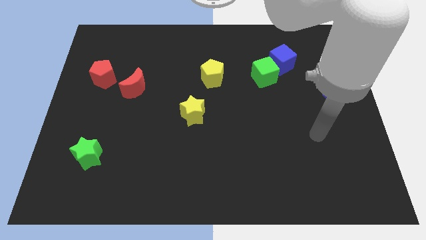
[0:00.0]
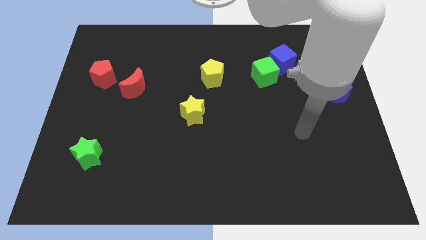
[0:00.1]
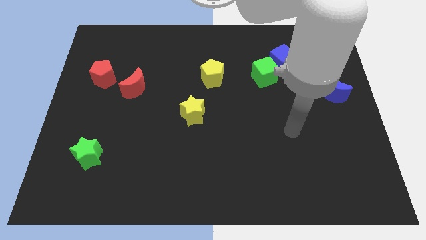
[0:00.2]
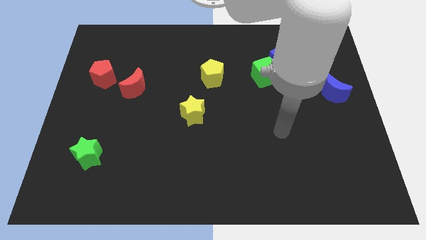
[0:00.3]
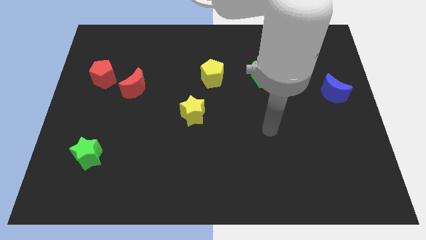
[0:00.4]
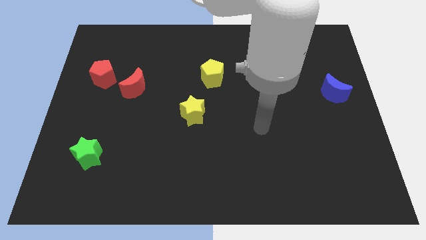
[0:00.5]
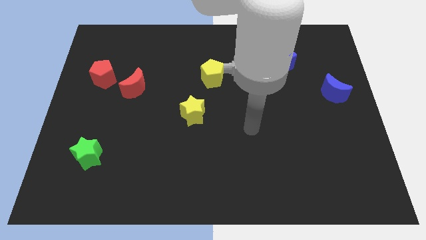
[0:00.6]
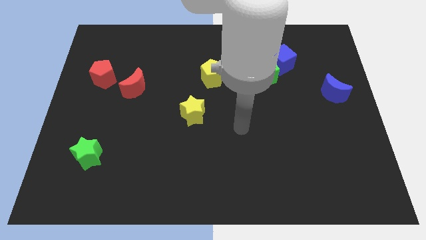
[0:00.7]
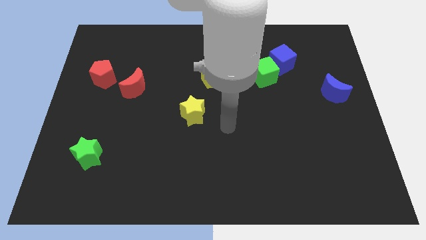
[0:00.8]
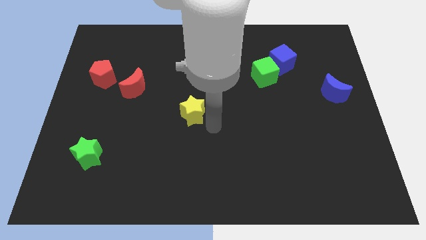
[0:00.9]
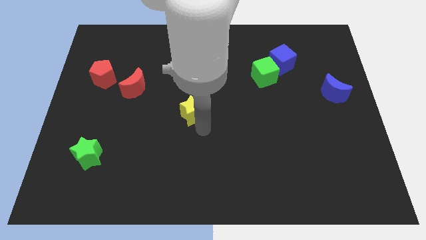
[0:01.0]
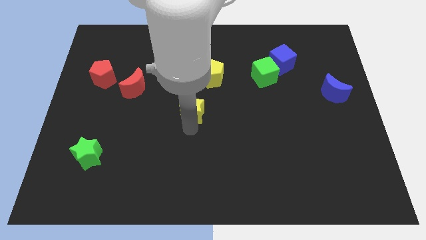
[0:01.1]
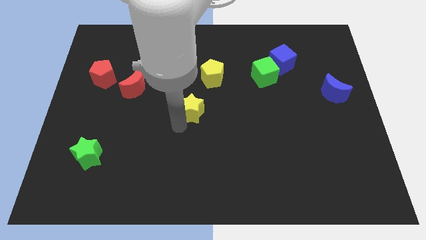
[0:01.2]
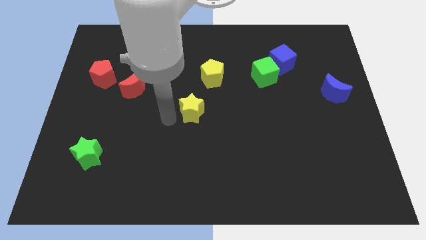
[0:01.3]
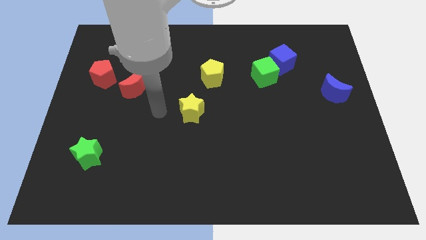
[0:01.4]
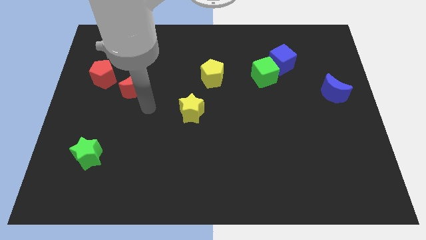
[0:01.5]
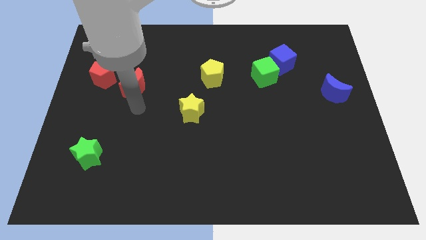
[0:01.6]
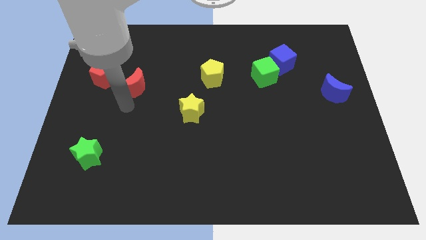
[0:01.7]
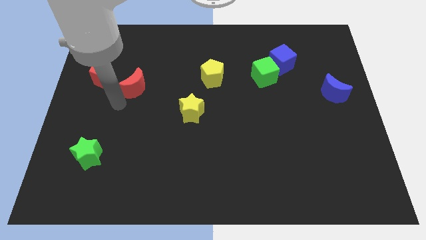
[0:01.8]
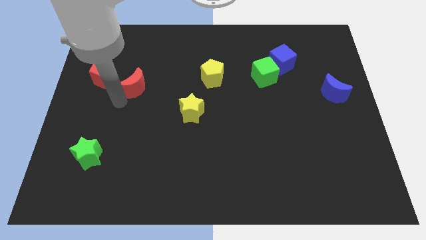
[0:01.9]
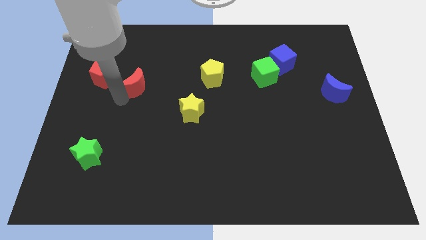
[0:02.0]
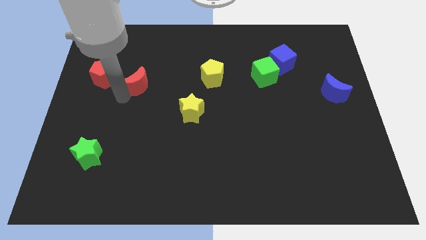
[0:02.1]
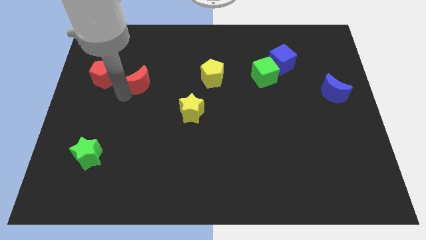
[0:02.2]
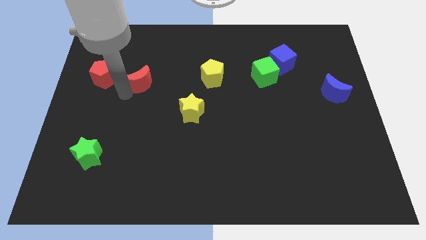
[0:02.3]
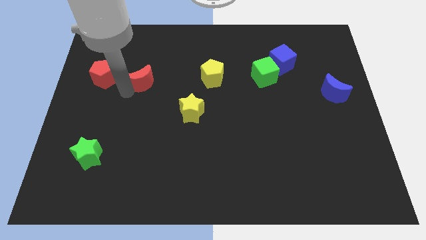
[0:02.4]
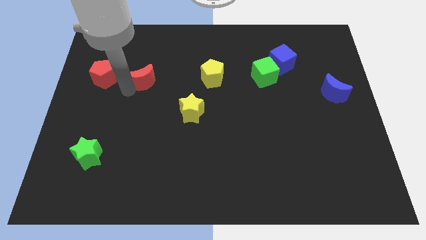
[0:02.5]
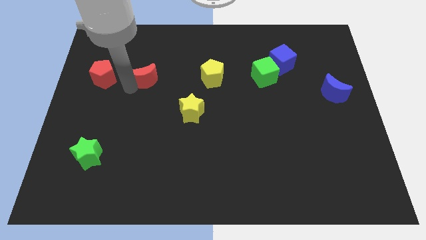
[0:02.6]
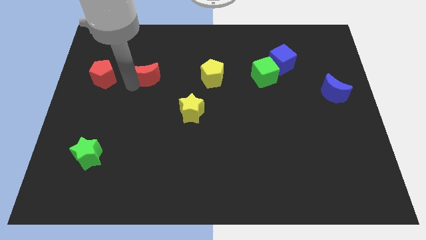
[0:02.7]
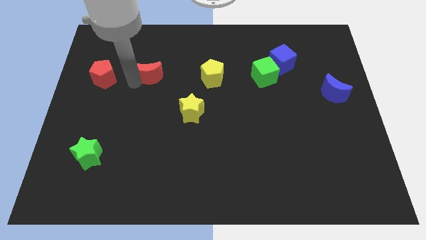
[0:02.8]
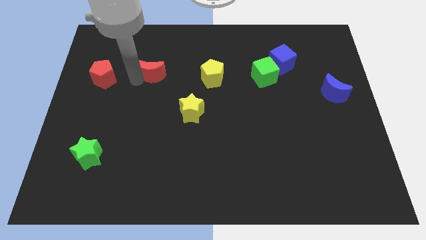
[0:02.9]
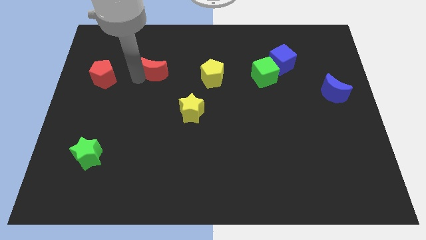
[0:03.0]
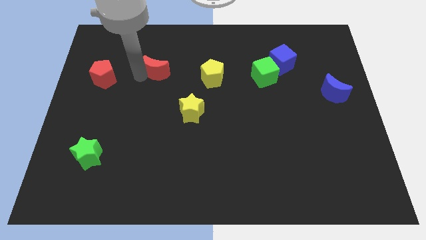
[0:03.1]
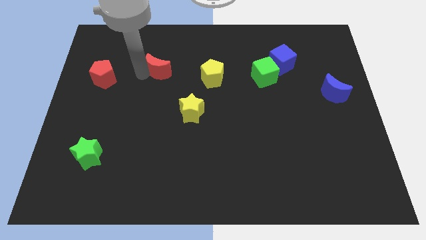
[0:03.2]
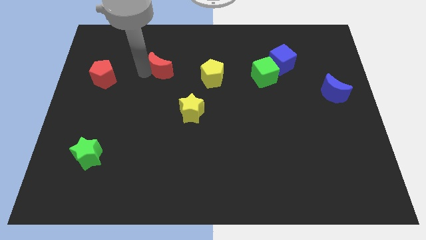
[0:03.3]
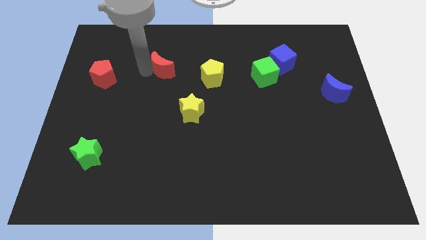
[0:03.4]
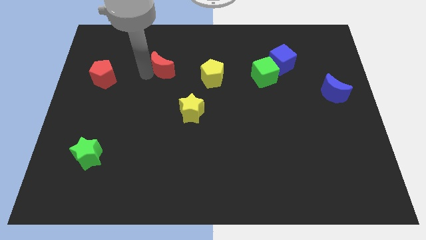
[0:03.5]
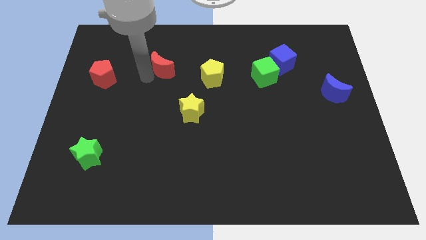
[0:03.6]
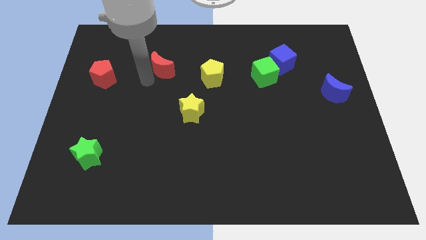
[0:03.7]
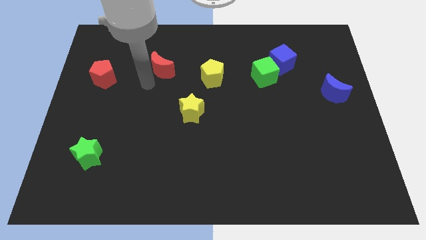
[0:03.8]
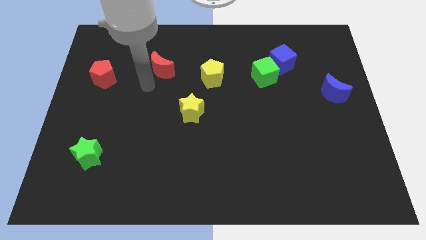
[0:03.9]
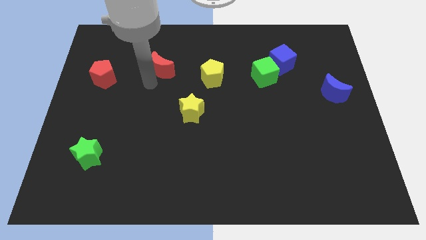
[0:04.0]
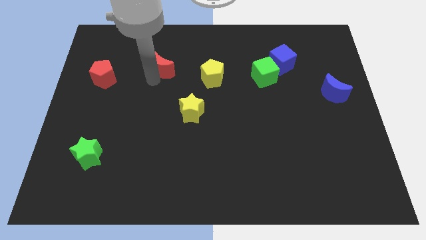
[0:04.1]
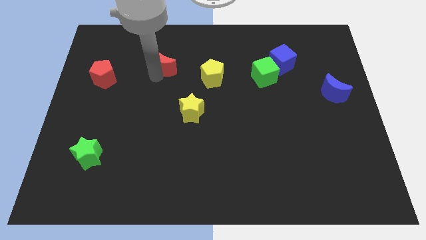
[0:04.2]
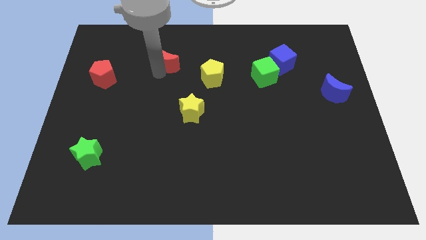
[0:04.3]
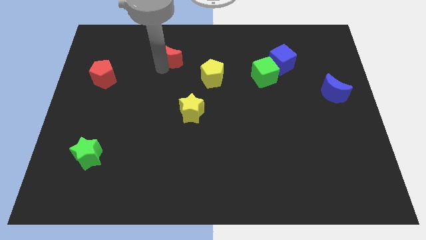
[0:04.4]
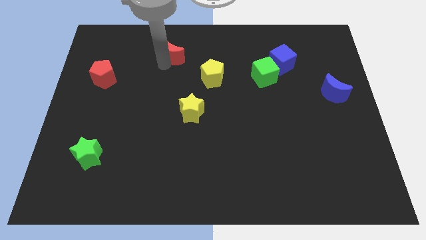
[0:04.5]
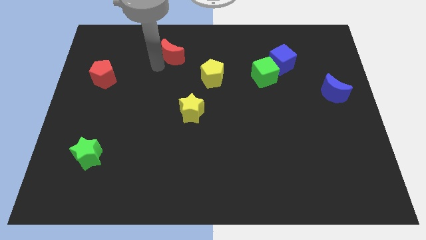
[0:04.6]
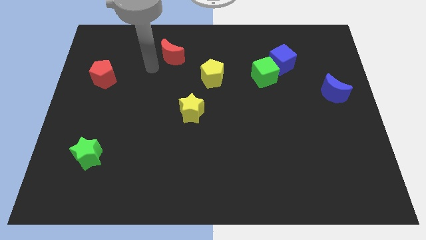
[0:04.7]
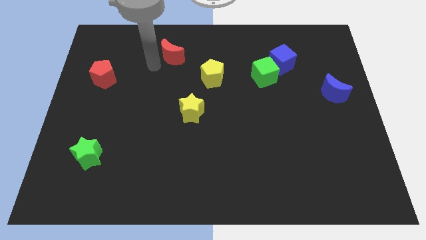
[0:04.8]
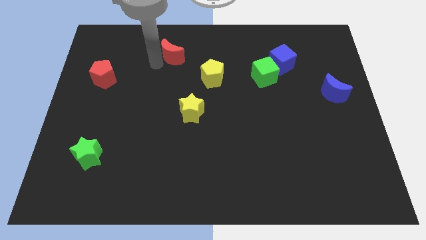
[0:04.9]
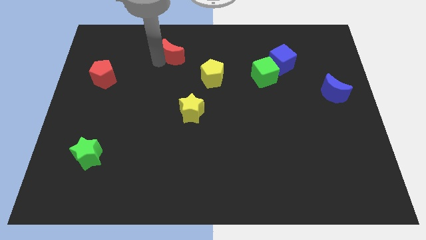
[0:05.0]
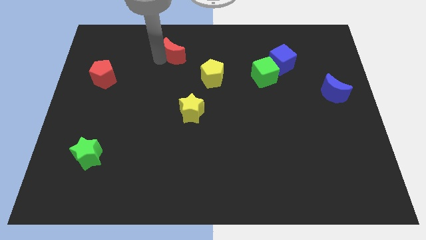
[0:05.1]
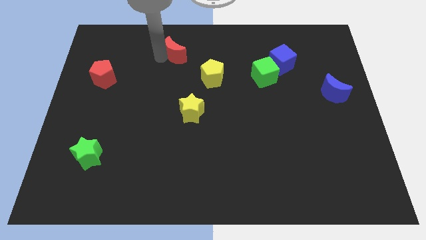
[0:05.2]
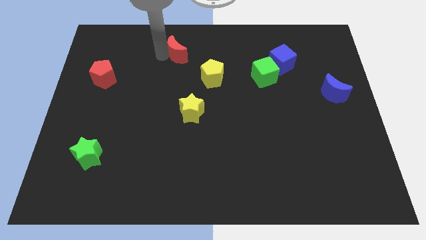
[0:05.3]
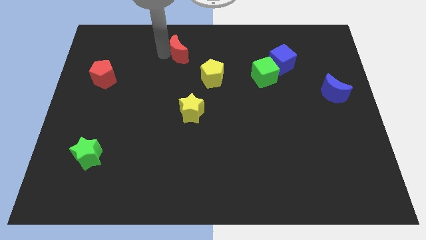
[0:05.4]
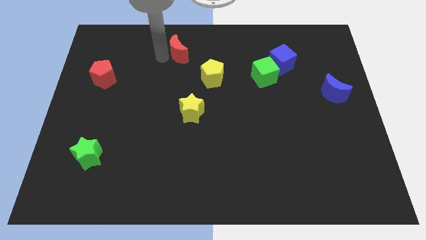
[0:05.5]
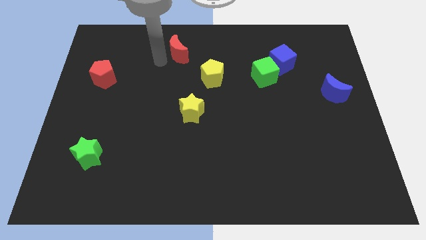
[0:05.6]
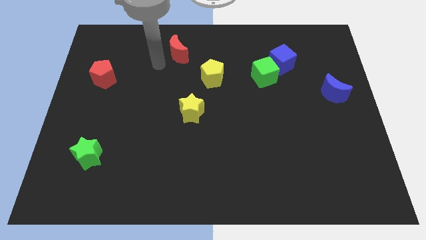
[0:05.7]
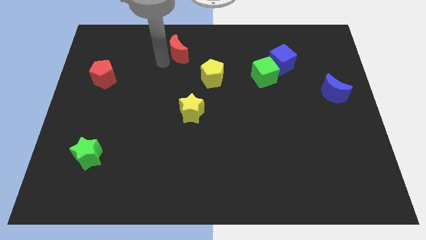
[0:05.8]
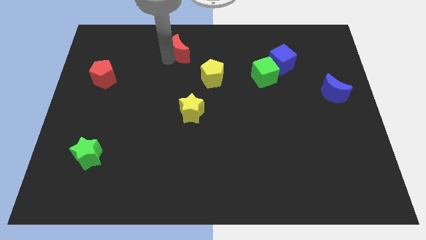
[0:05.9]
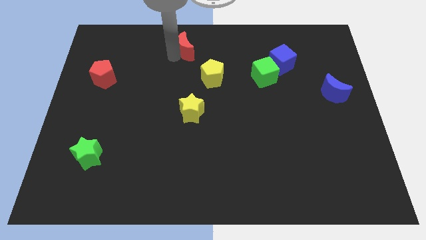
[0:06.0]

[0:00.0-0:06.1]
slide the red moon to the top side

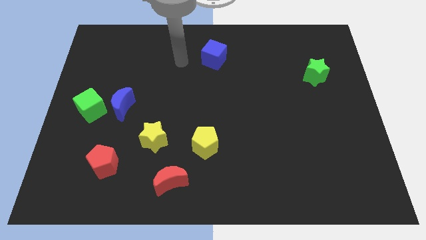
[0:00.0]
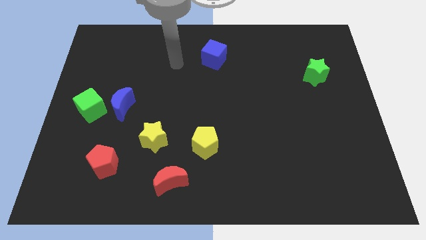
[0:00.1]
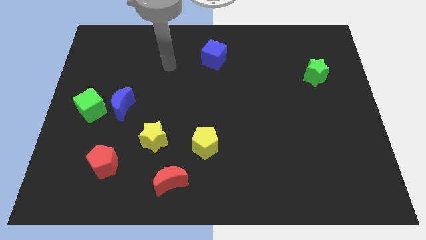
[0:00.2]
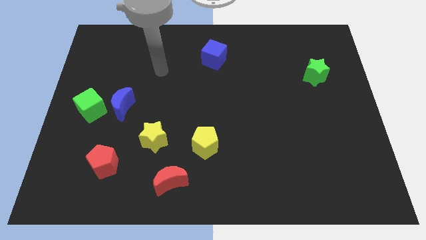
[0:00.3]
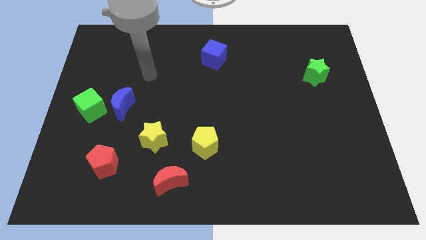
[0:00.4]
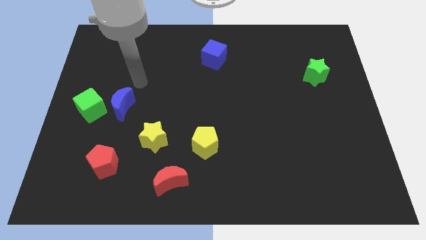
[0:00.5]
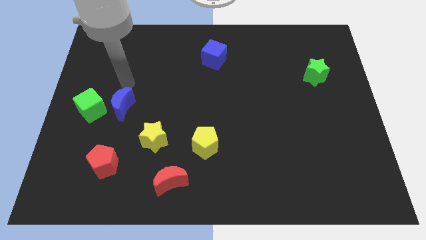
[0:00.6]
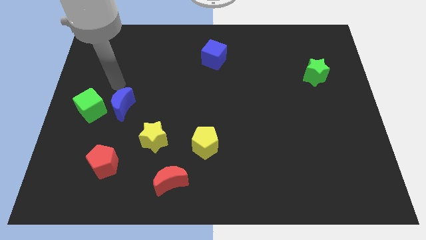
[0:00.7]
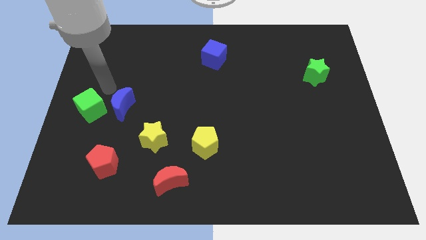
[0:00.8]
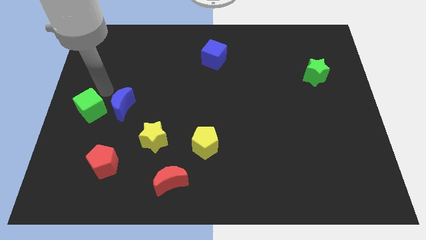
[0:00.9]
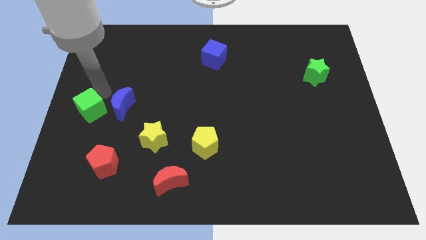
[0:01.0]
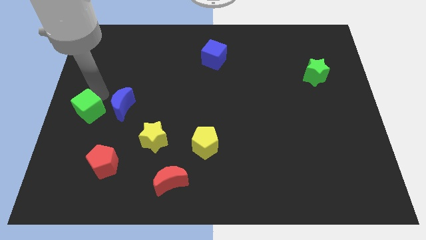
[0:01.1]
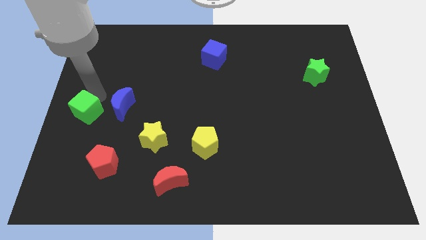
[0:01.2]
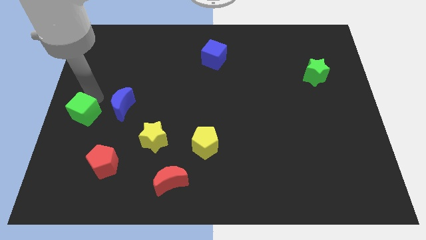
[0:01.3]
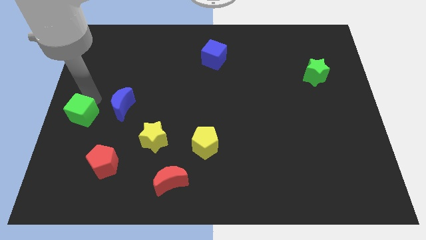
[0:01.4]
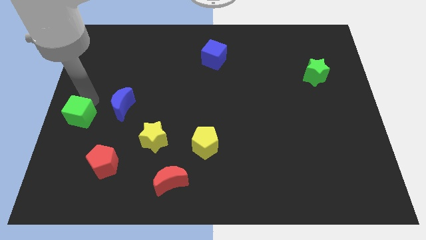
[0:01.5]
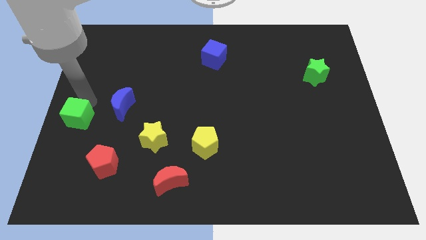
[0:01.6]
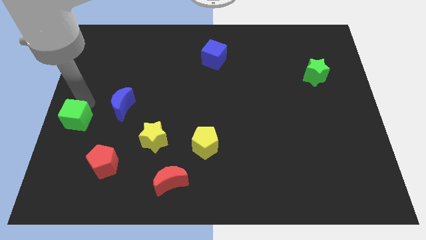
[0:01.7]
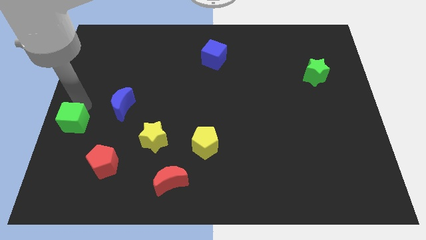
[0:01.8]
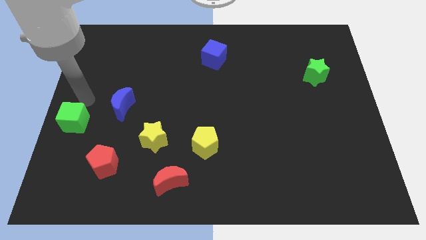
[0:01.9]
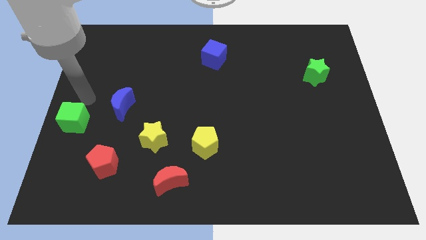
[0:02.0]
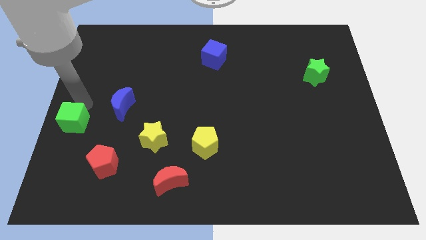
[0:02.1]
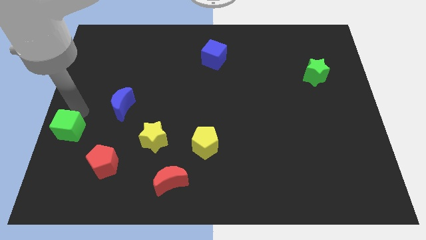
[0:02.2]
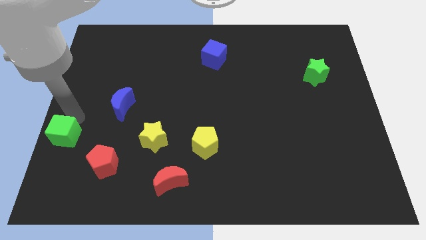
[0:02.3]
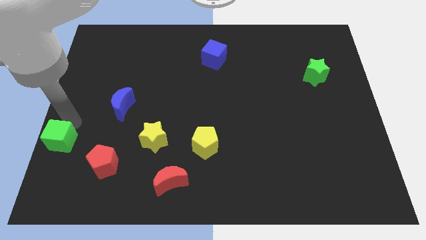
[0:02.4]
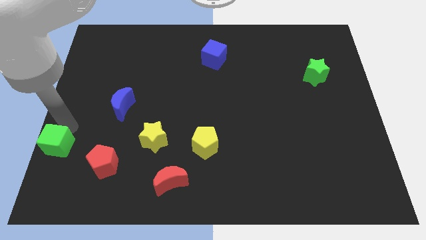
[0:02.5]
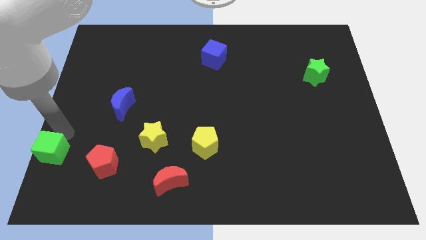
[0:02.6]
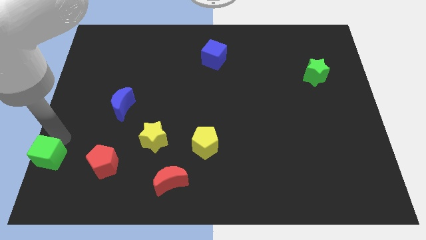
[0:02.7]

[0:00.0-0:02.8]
move the green cube to the lower left corner
